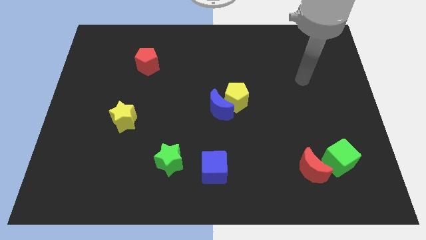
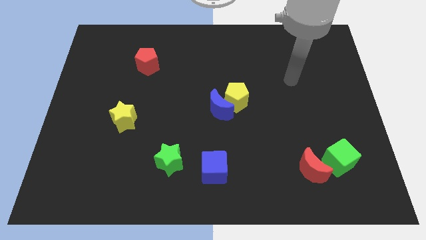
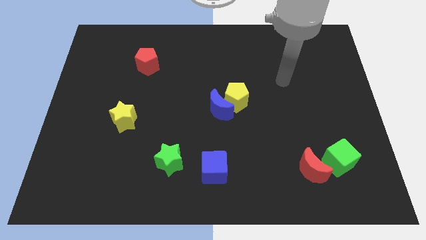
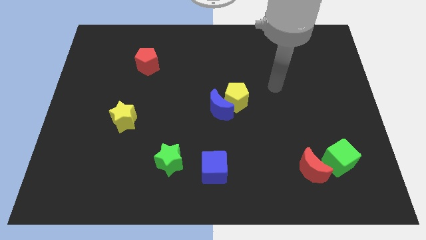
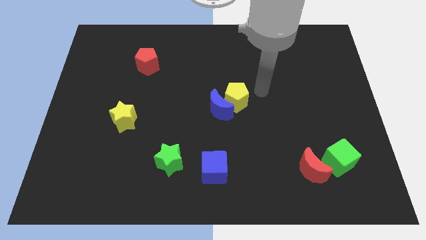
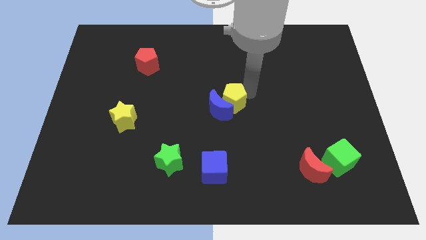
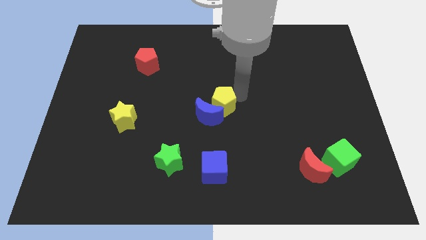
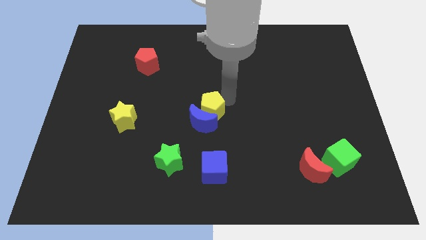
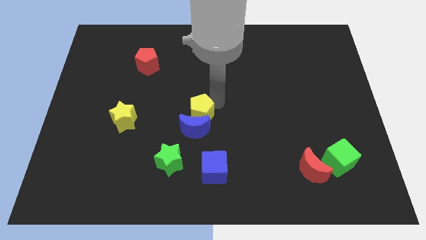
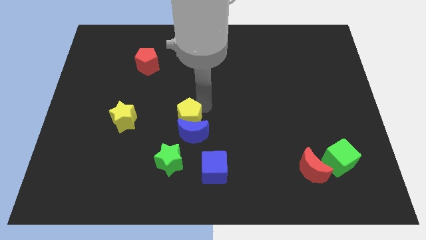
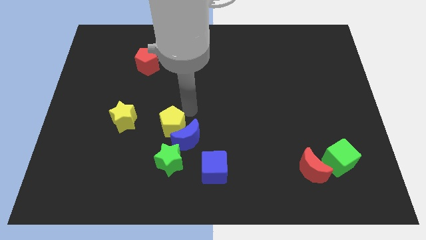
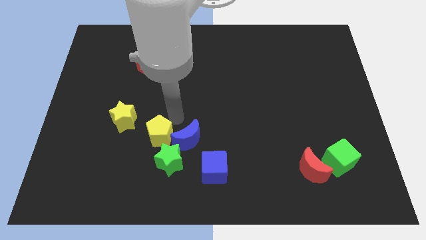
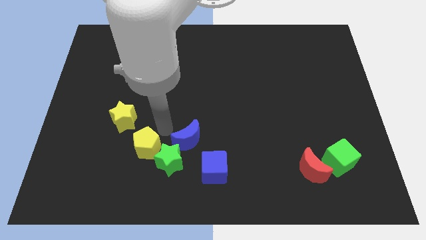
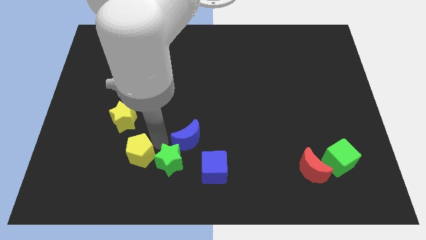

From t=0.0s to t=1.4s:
pull the blue moon apart from the yellow pentagon

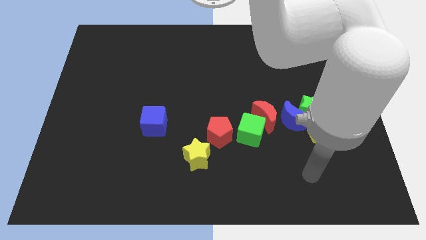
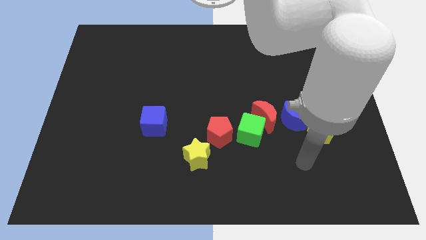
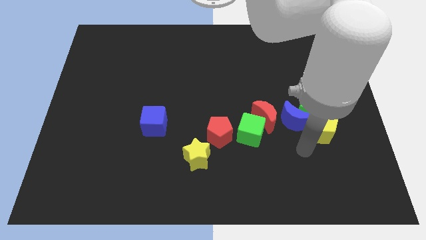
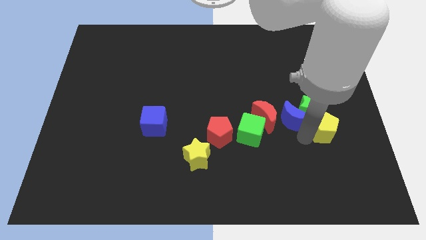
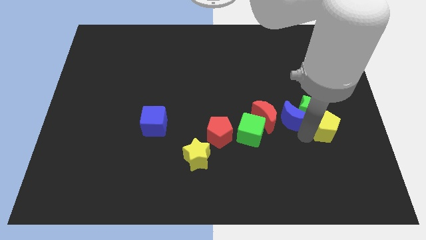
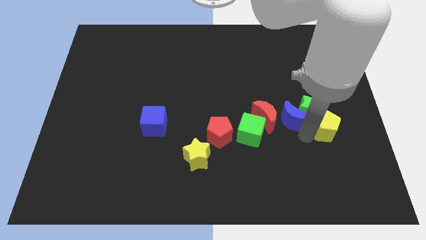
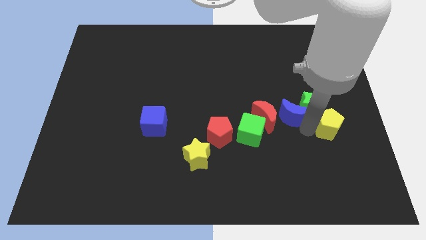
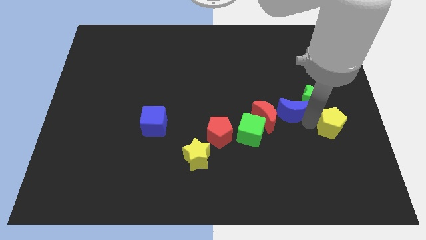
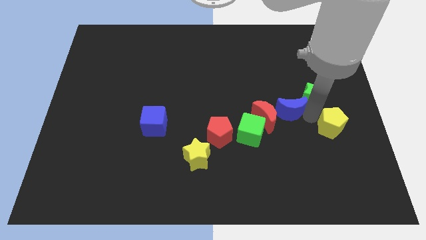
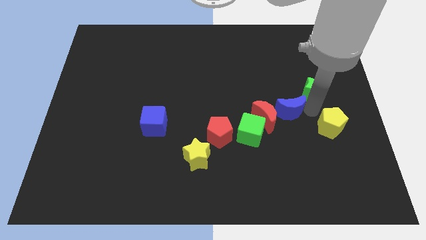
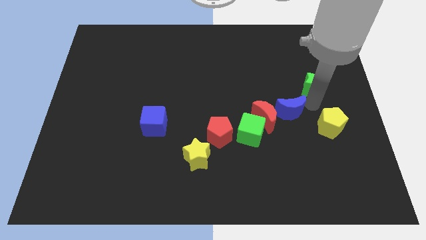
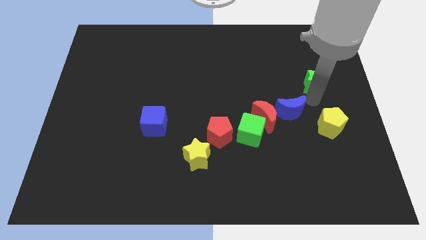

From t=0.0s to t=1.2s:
pull the green star apart from the blue moon and yellow pentagon

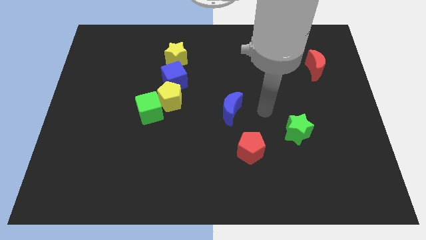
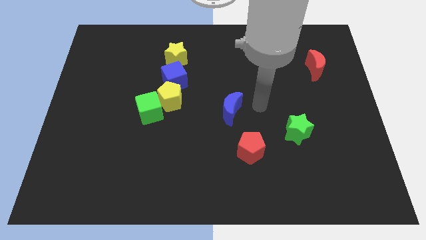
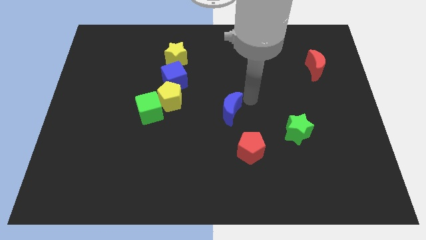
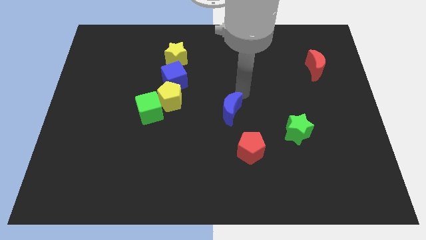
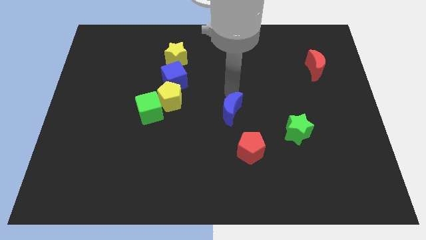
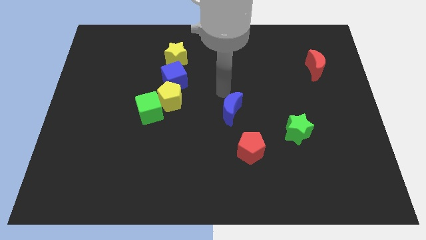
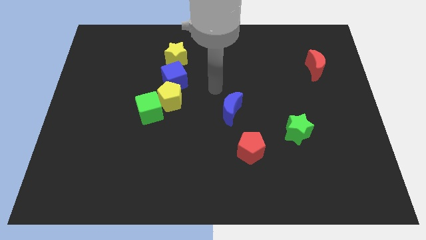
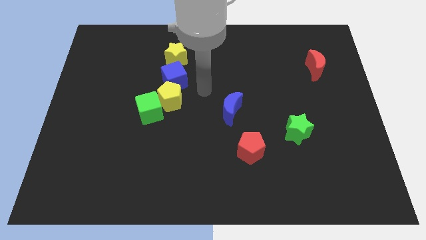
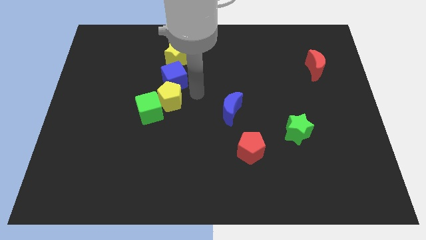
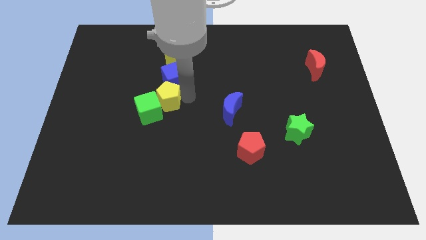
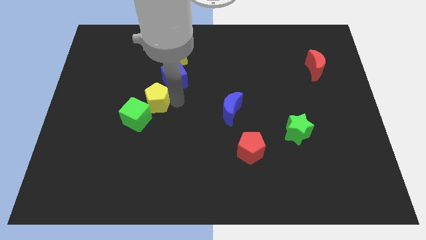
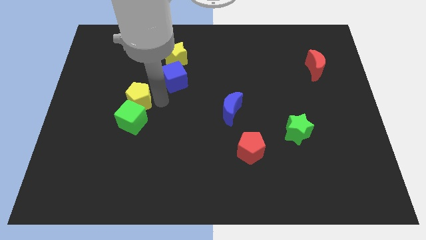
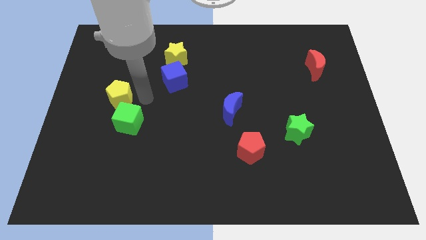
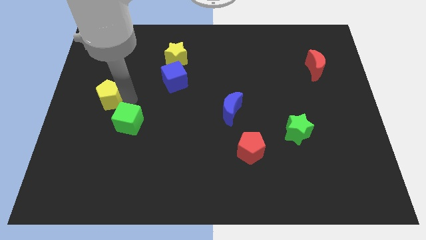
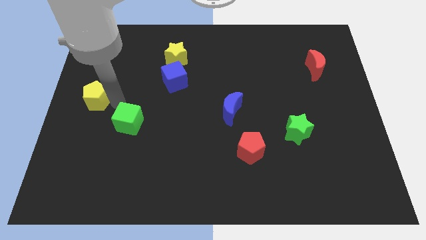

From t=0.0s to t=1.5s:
pull the green cube apart from the yellow pentagon

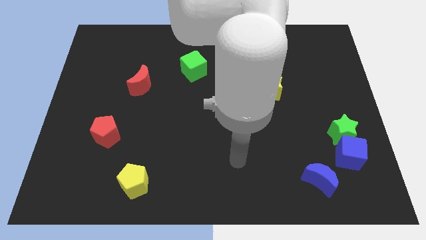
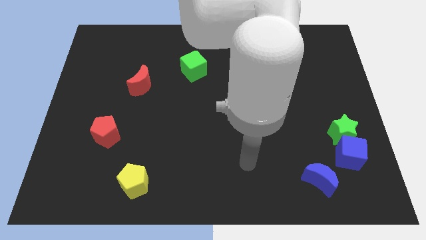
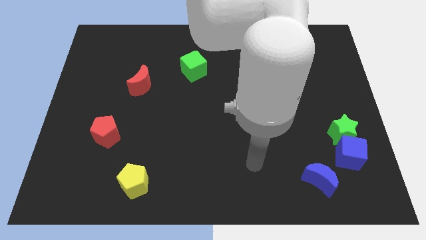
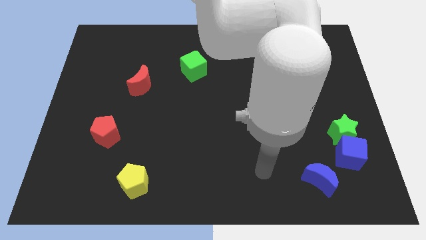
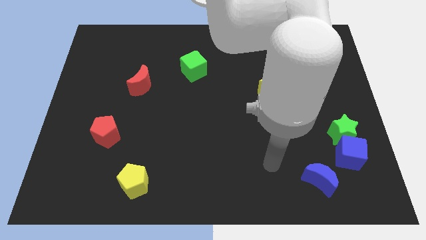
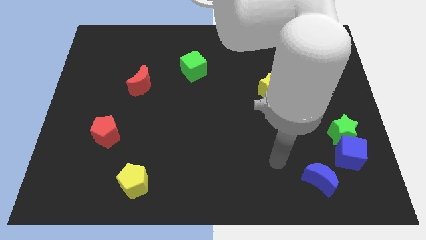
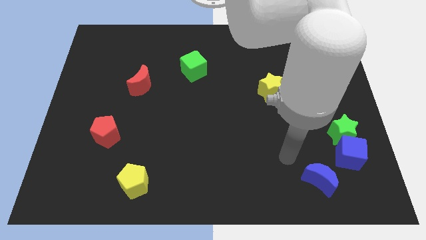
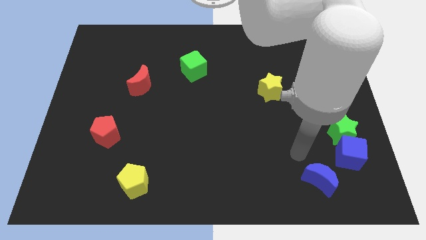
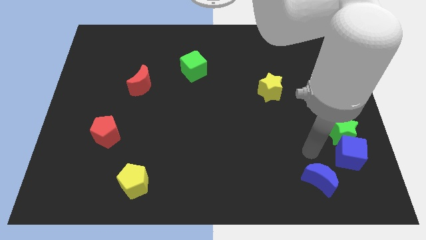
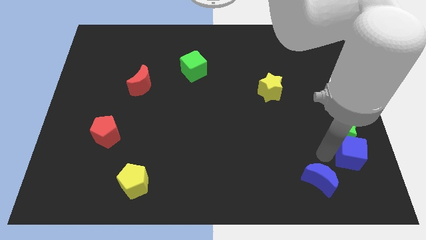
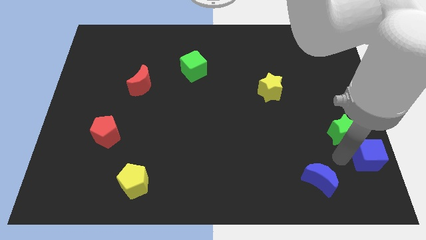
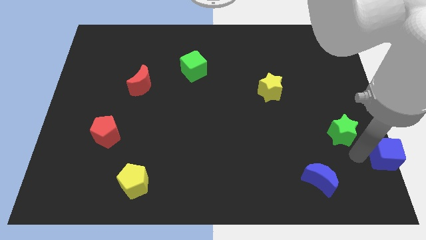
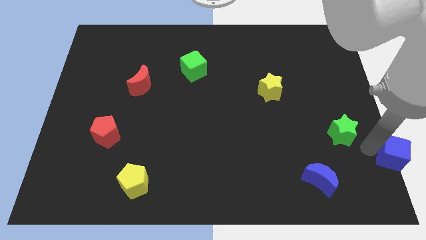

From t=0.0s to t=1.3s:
move the green star away from the blue cube

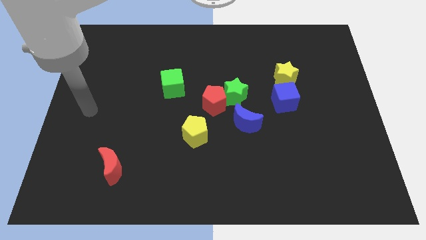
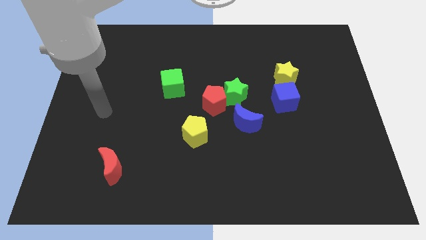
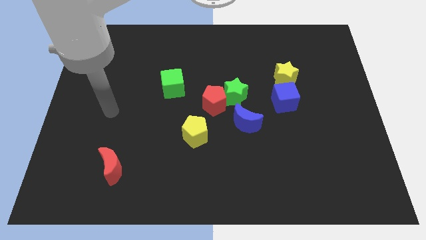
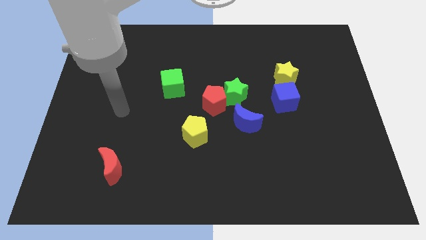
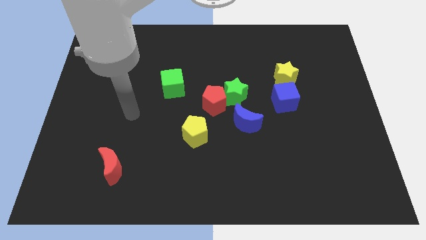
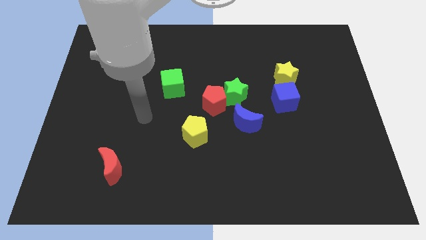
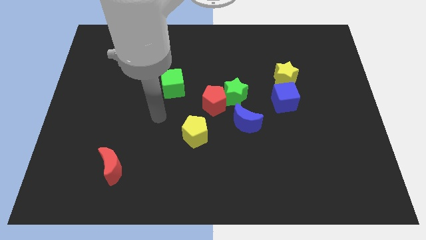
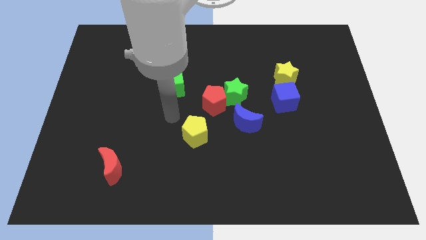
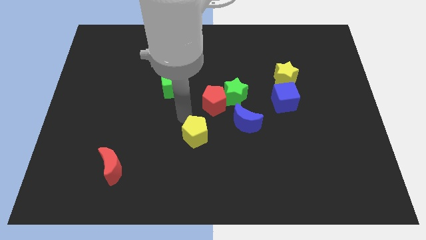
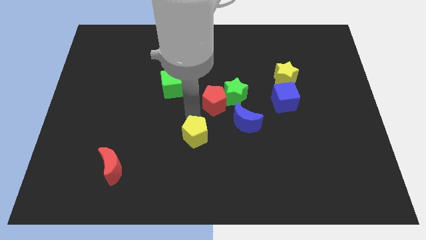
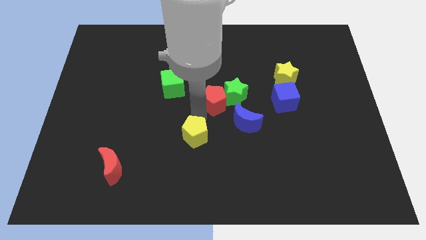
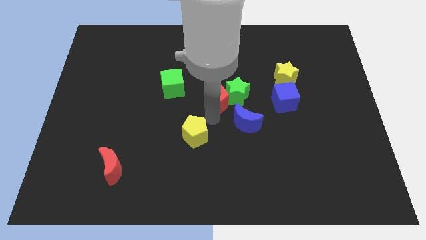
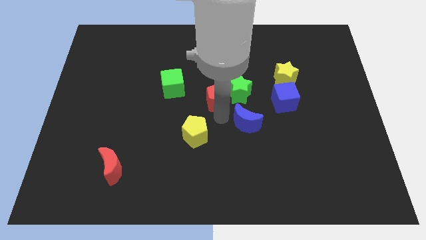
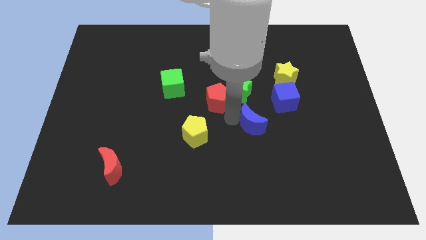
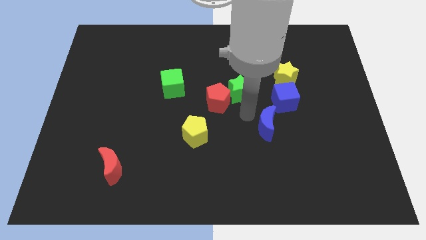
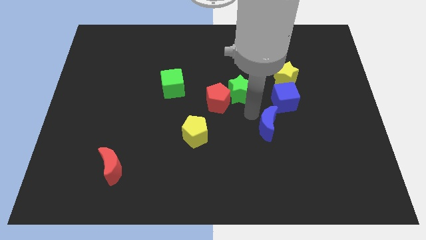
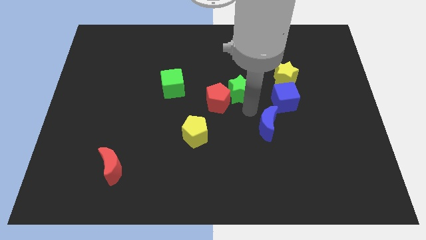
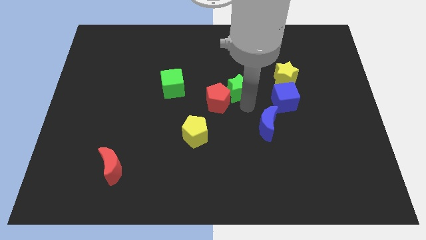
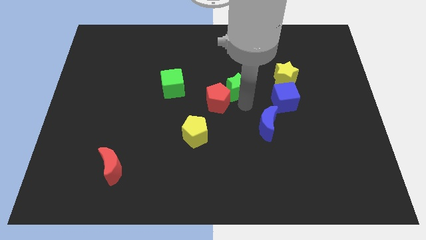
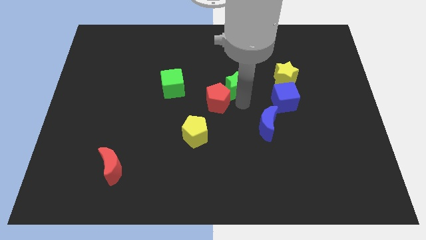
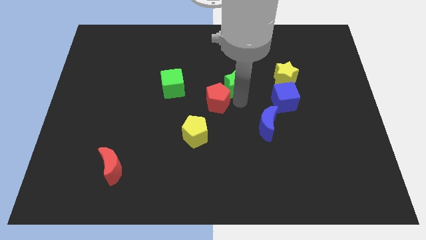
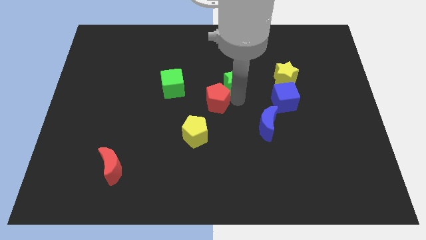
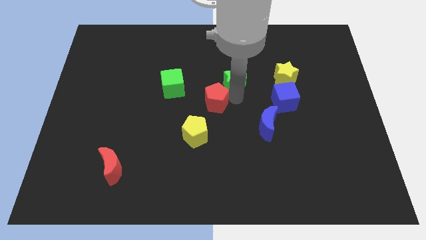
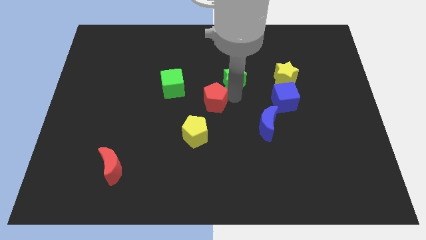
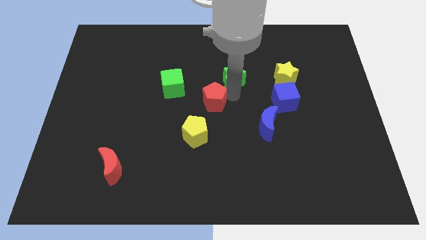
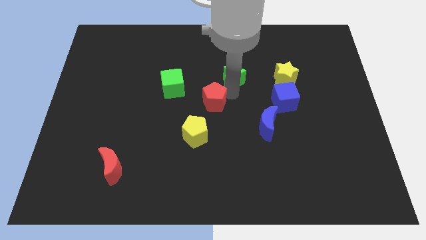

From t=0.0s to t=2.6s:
pull the green star apart from the red pentagon and blue moon

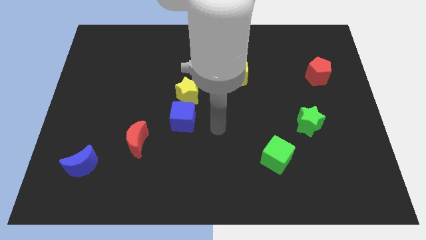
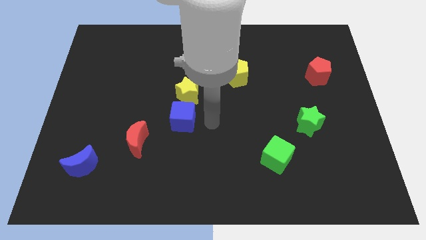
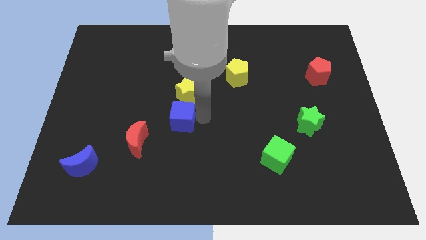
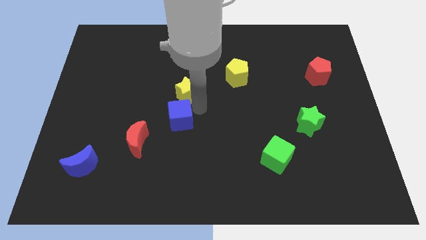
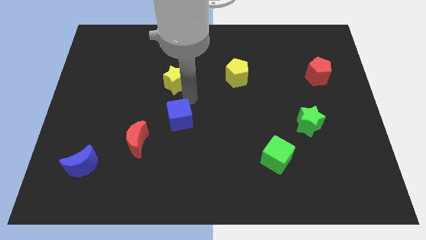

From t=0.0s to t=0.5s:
pull the blue cube apart from the yellow star

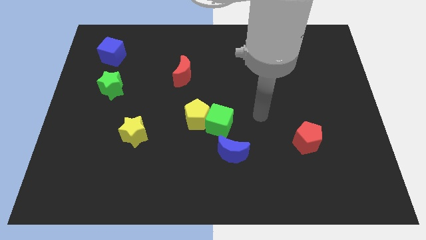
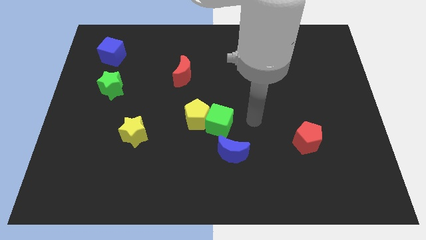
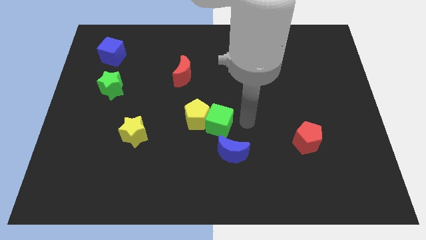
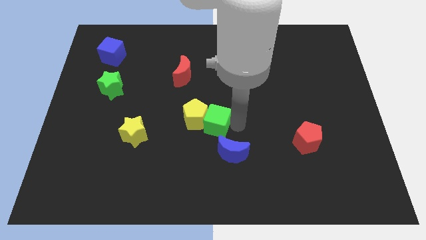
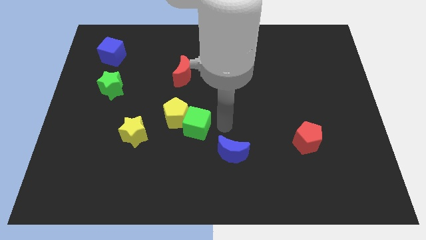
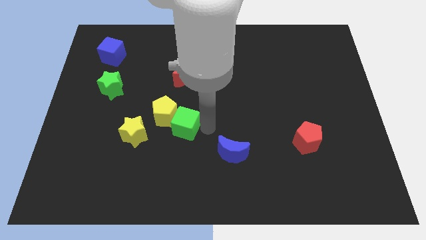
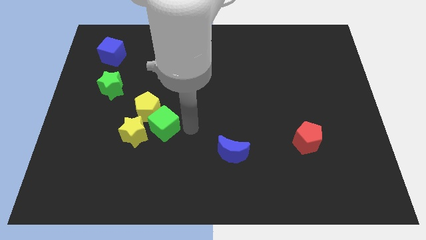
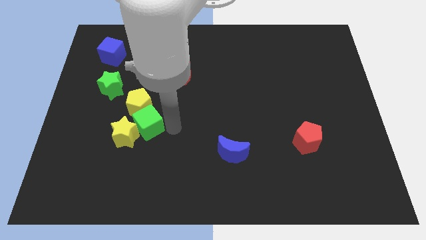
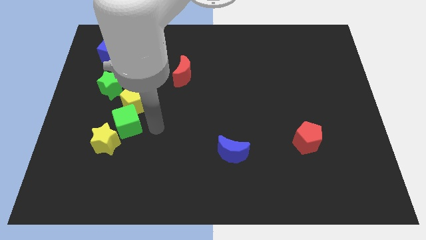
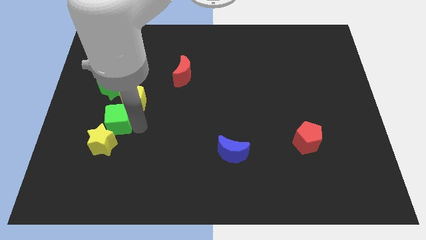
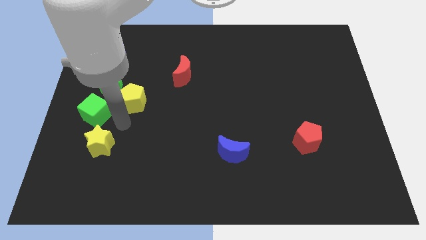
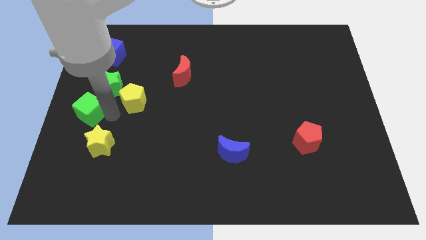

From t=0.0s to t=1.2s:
pull the yellow pentagon apart from the green cube
